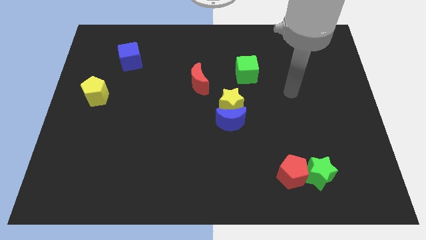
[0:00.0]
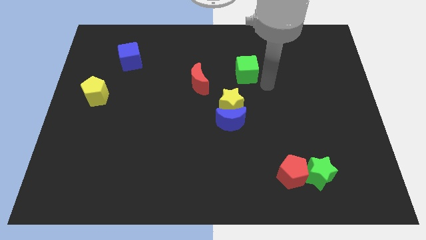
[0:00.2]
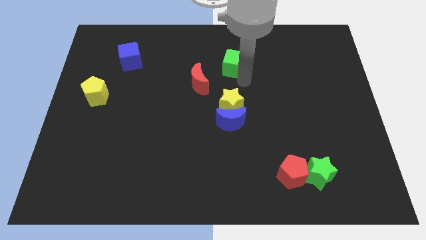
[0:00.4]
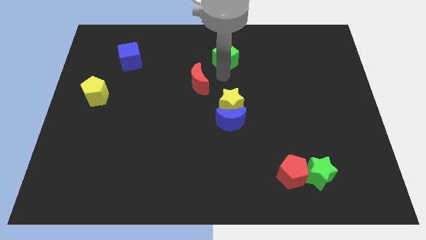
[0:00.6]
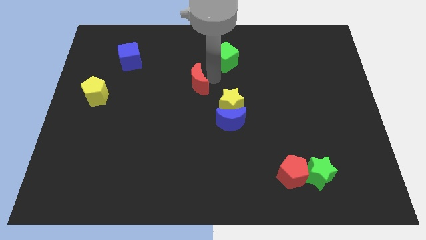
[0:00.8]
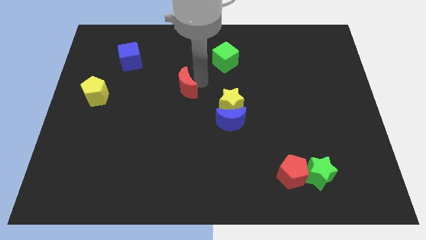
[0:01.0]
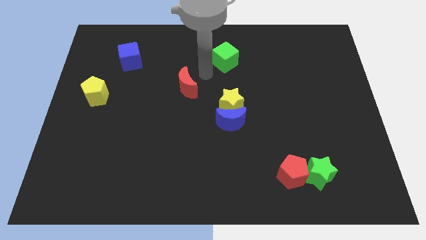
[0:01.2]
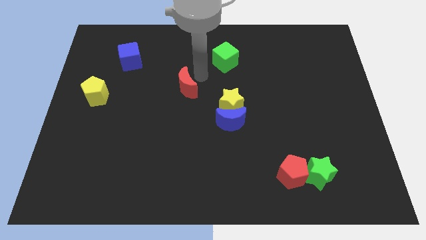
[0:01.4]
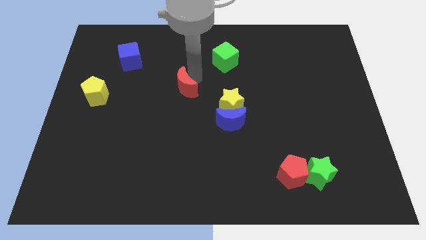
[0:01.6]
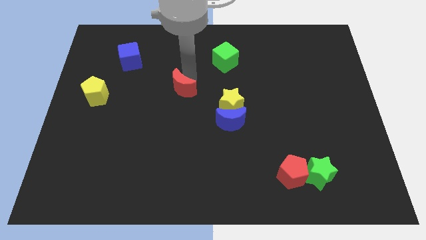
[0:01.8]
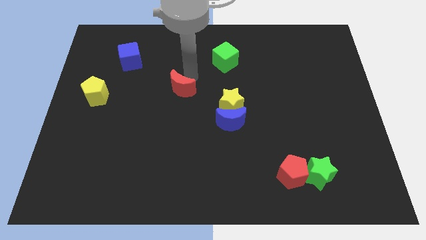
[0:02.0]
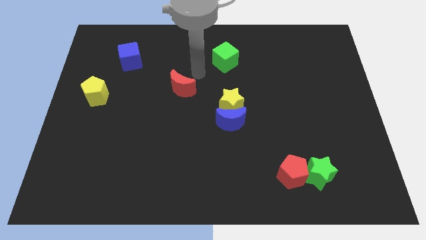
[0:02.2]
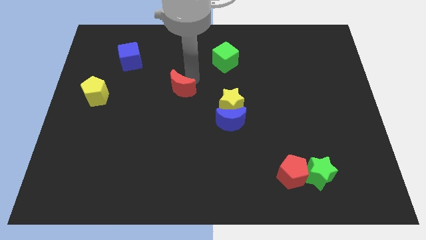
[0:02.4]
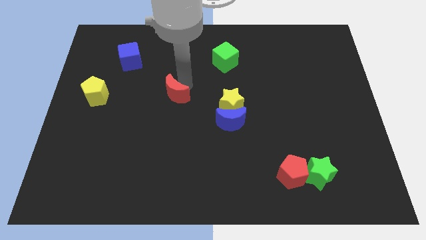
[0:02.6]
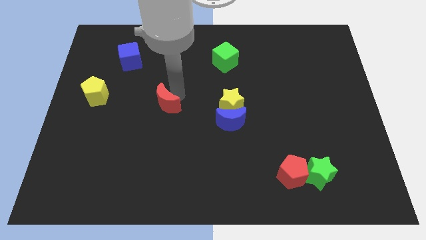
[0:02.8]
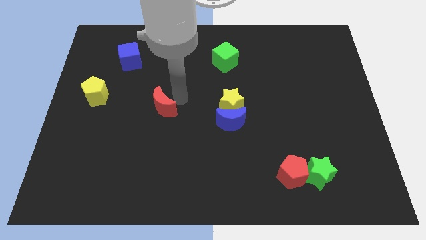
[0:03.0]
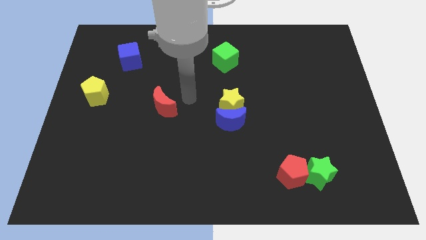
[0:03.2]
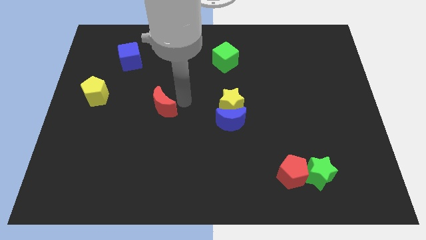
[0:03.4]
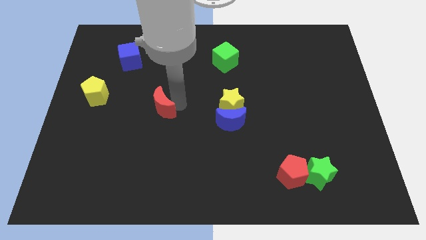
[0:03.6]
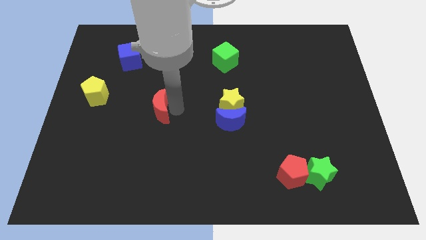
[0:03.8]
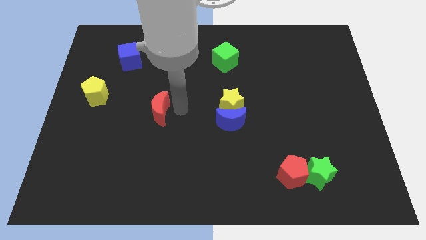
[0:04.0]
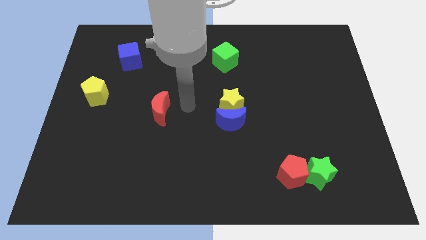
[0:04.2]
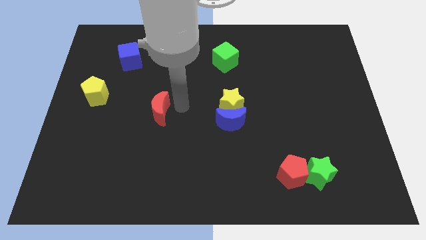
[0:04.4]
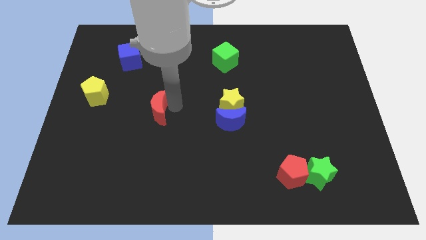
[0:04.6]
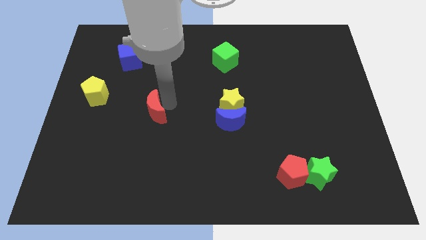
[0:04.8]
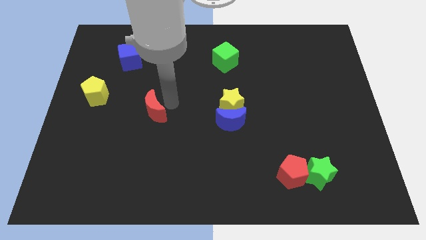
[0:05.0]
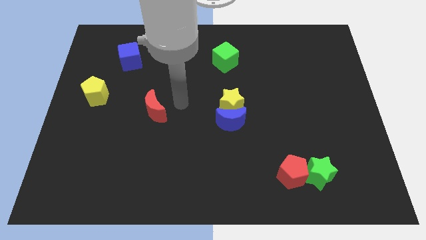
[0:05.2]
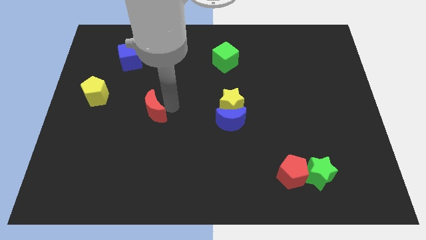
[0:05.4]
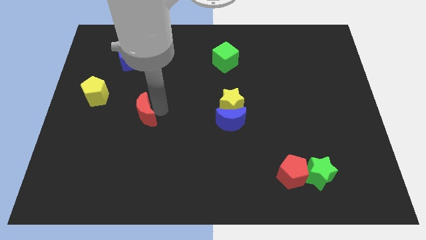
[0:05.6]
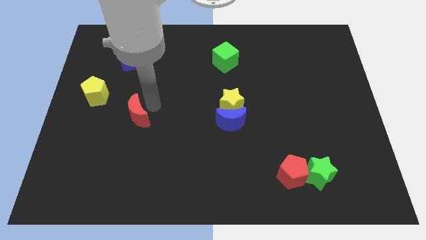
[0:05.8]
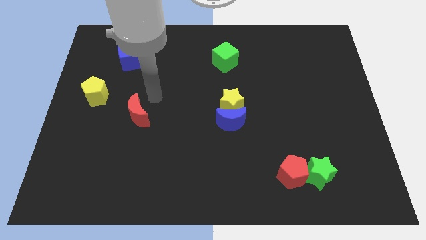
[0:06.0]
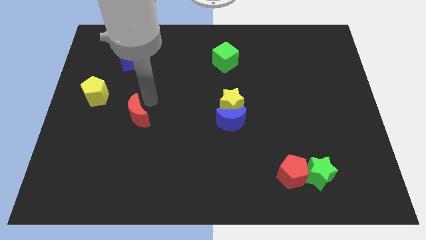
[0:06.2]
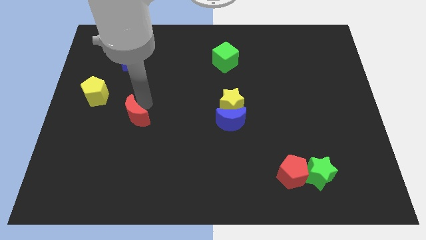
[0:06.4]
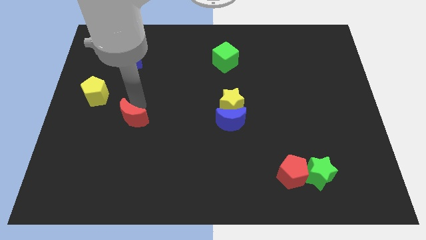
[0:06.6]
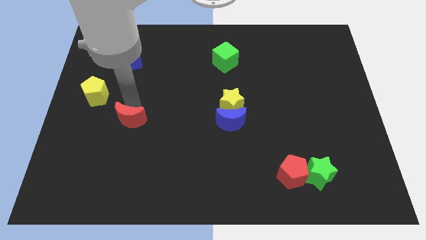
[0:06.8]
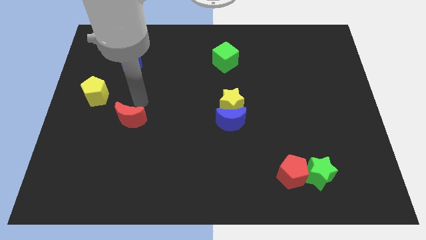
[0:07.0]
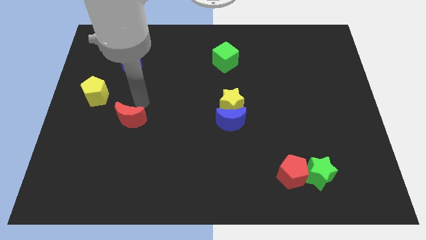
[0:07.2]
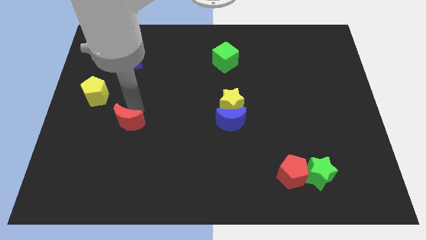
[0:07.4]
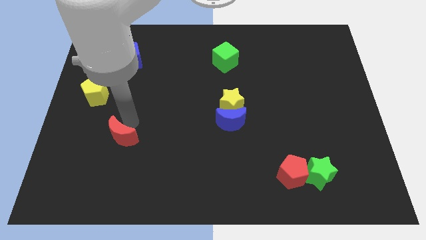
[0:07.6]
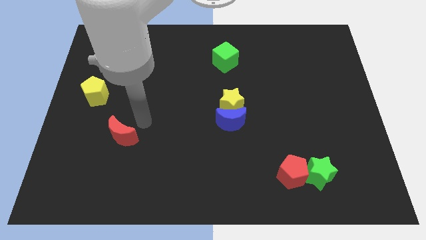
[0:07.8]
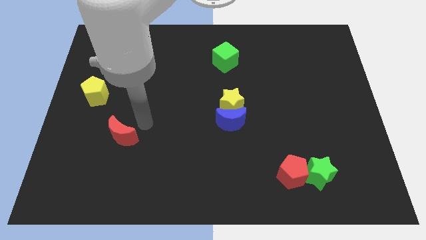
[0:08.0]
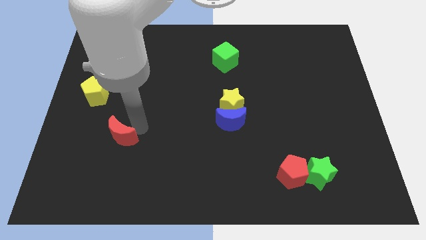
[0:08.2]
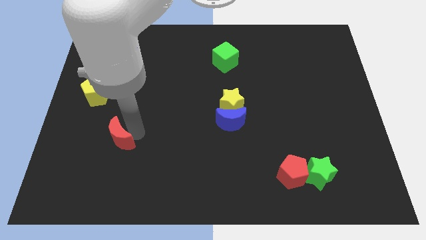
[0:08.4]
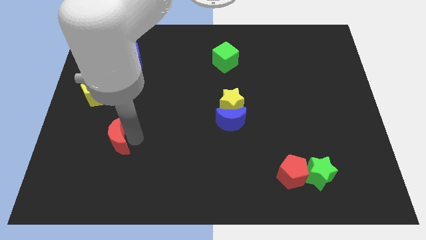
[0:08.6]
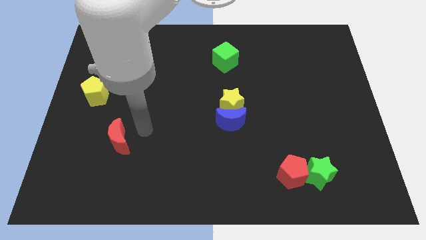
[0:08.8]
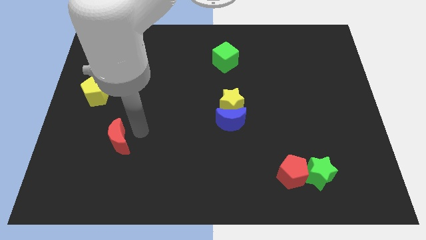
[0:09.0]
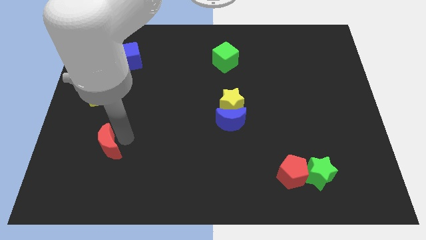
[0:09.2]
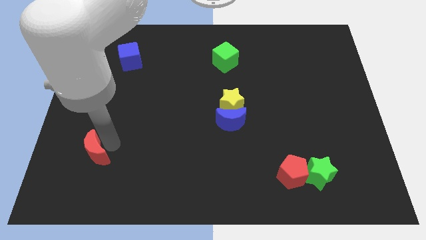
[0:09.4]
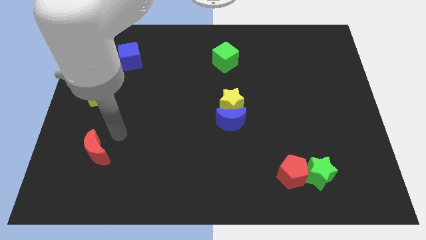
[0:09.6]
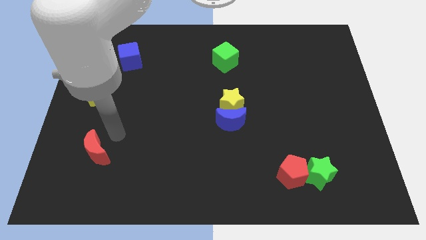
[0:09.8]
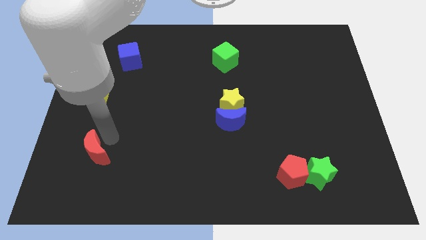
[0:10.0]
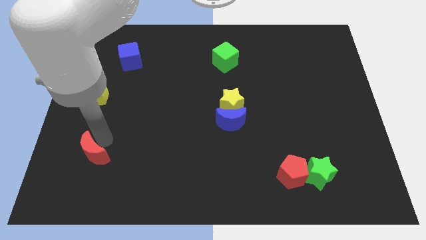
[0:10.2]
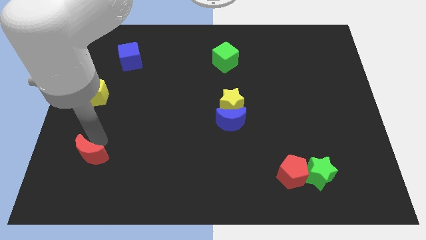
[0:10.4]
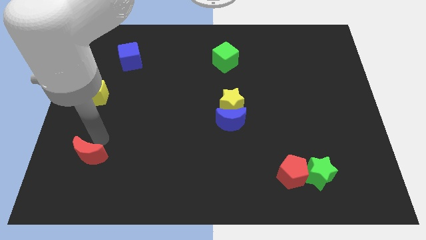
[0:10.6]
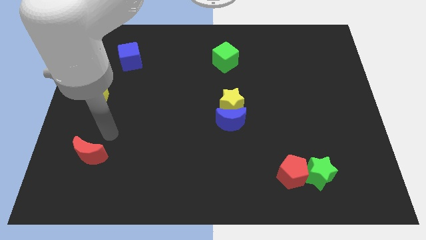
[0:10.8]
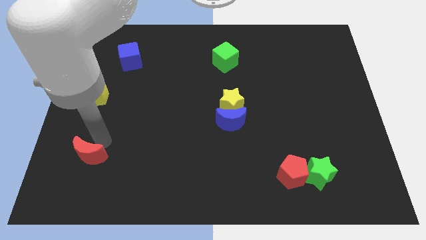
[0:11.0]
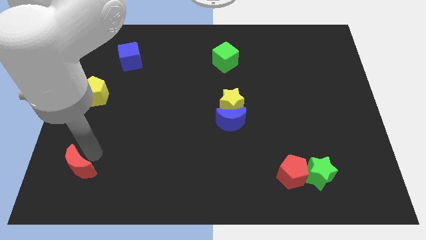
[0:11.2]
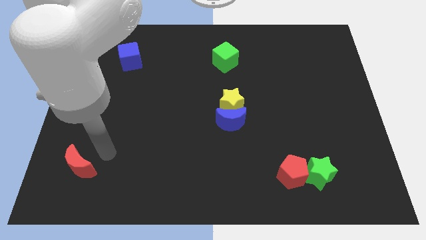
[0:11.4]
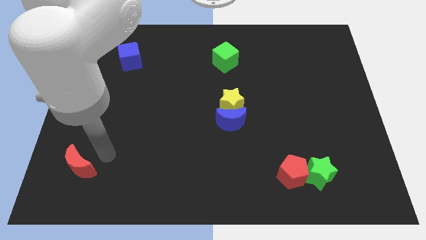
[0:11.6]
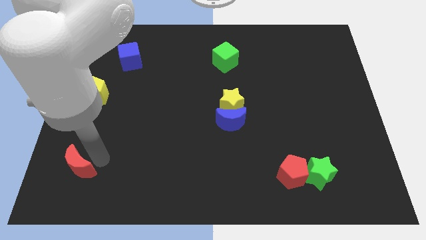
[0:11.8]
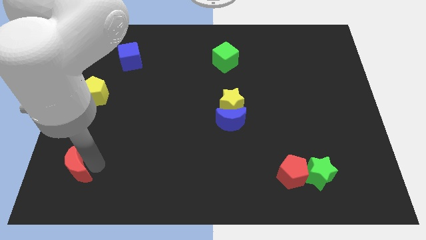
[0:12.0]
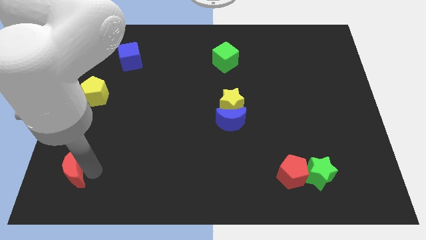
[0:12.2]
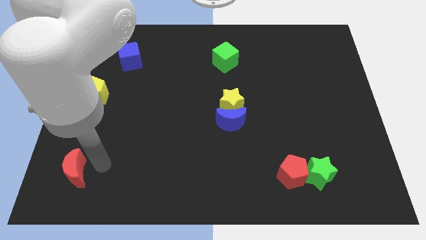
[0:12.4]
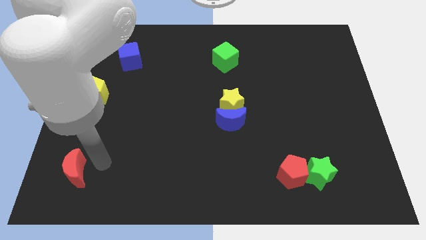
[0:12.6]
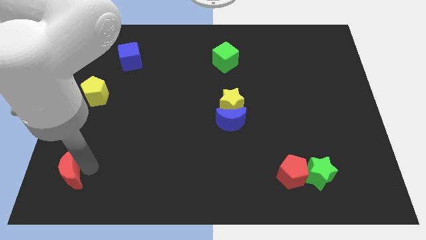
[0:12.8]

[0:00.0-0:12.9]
put the red moon to the lower left corner
